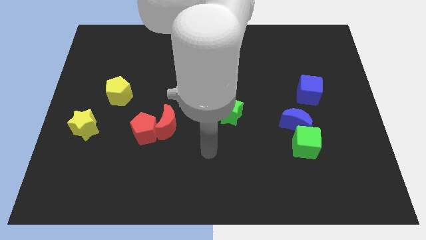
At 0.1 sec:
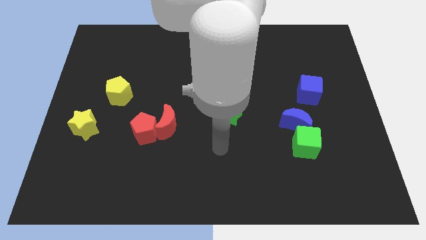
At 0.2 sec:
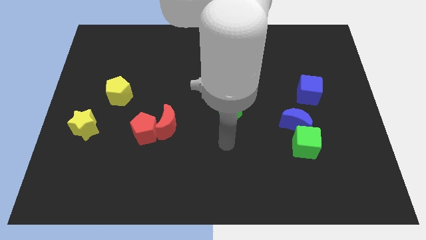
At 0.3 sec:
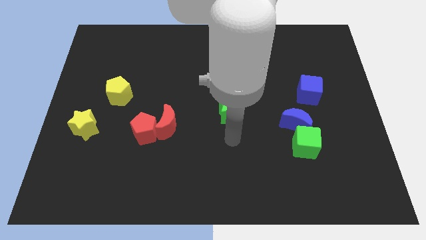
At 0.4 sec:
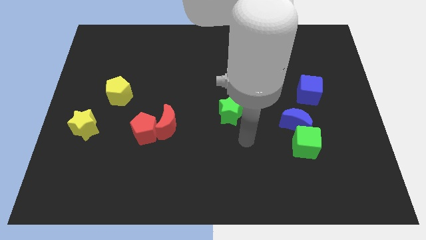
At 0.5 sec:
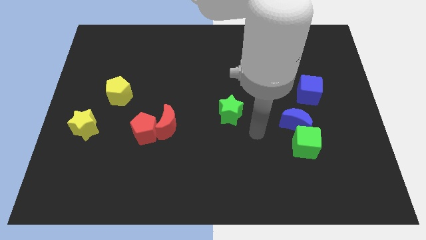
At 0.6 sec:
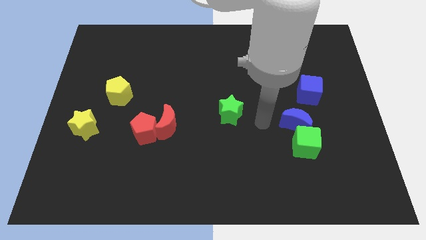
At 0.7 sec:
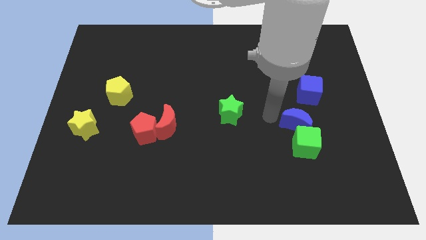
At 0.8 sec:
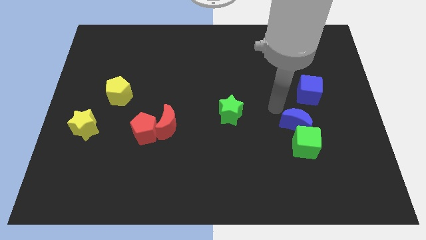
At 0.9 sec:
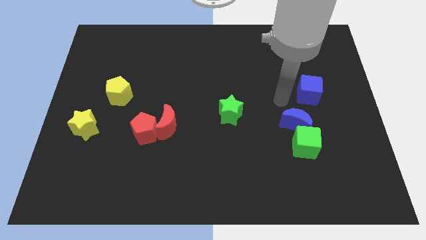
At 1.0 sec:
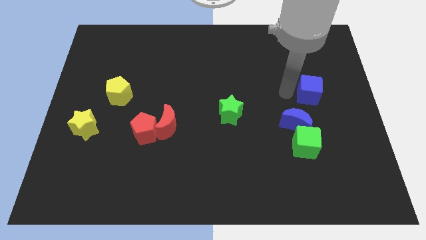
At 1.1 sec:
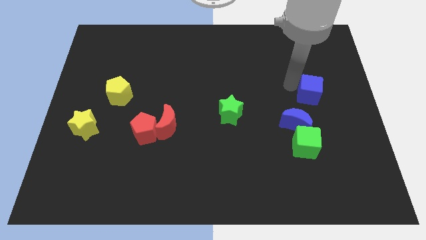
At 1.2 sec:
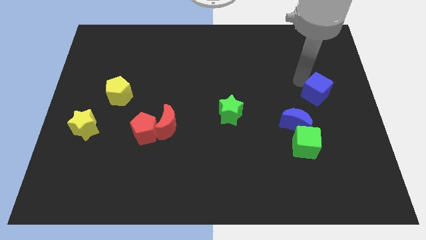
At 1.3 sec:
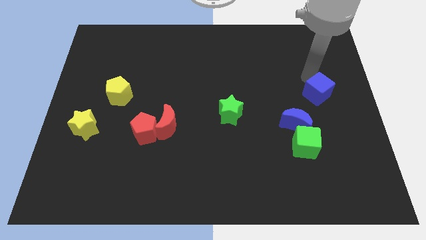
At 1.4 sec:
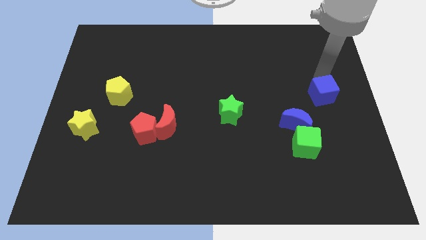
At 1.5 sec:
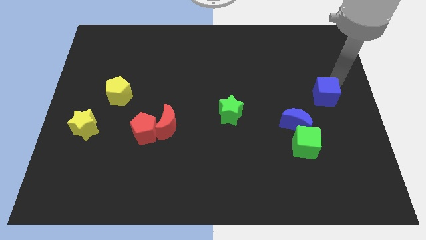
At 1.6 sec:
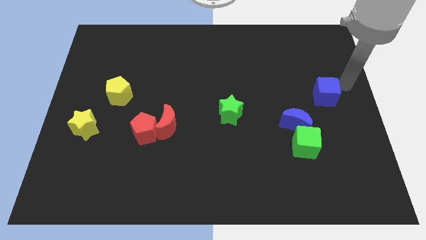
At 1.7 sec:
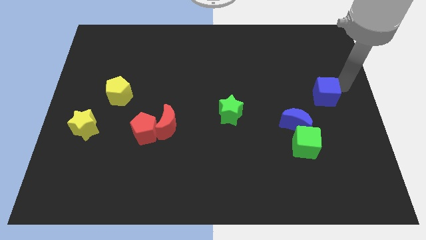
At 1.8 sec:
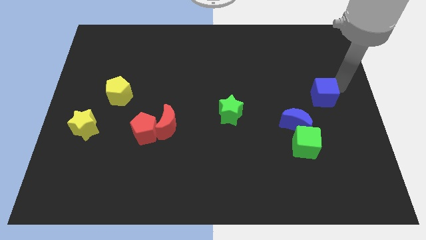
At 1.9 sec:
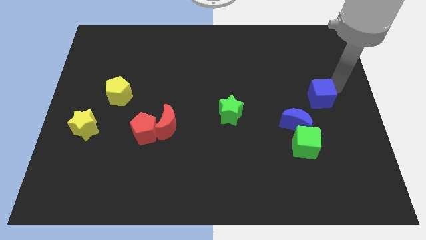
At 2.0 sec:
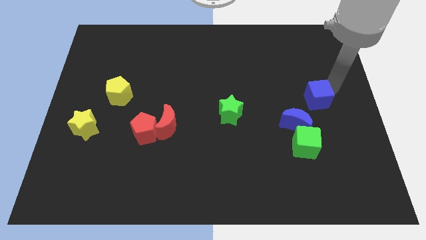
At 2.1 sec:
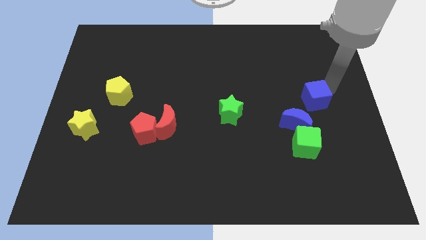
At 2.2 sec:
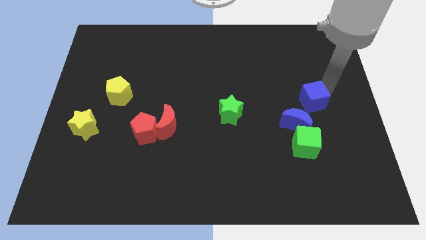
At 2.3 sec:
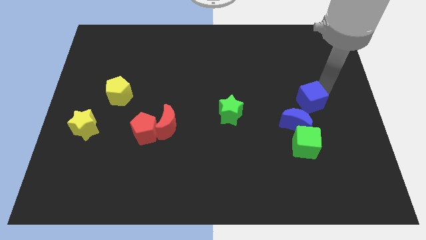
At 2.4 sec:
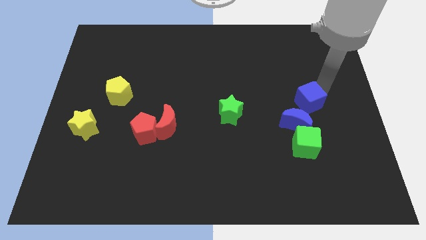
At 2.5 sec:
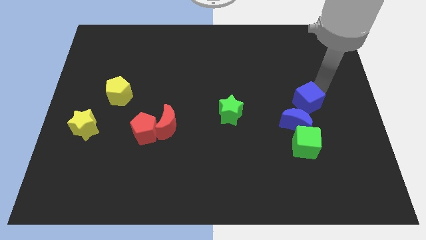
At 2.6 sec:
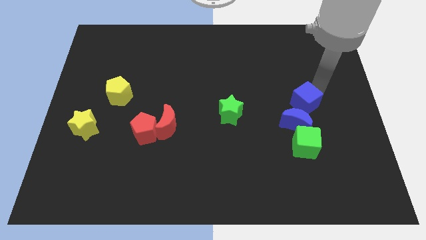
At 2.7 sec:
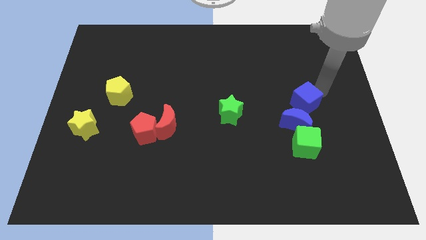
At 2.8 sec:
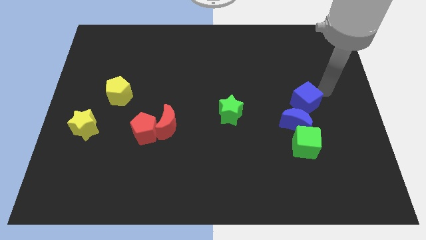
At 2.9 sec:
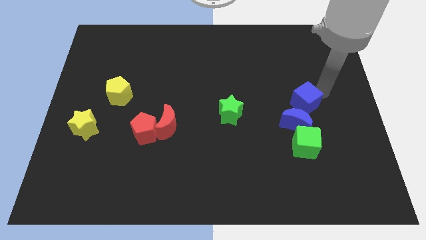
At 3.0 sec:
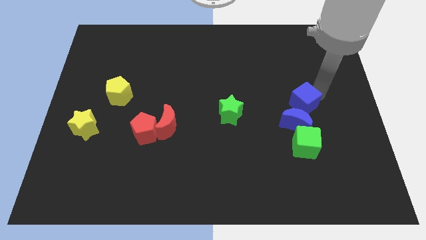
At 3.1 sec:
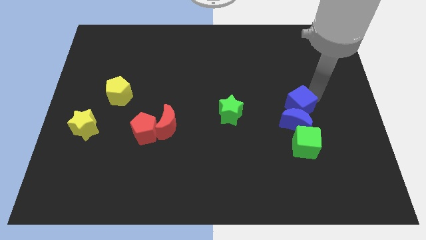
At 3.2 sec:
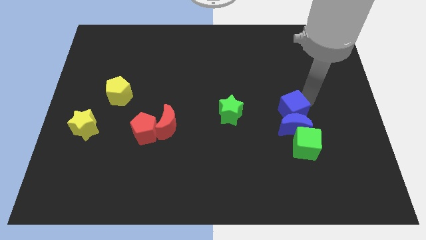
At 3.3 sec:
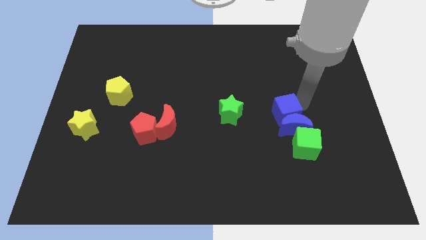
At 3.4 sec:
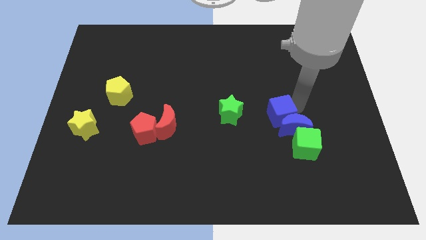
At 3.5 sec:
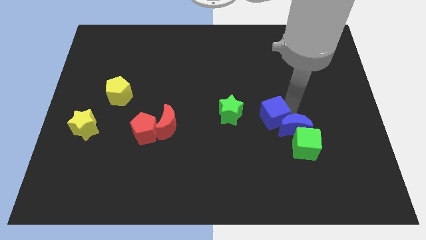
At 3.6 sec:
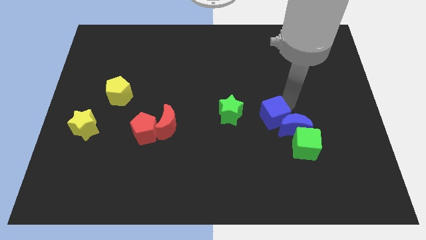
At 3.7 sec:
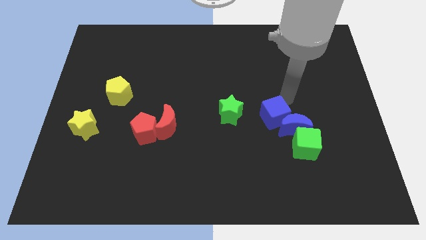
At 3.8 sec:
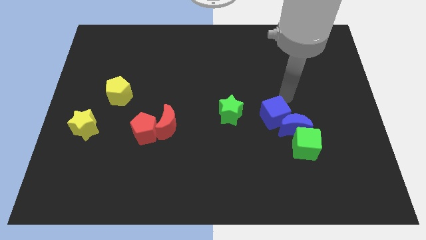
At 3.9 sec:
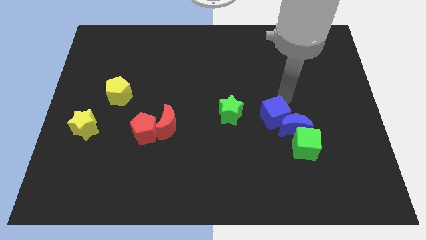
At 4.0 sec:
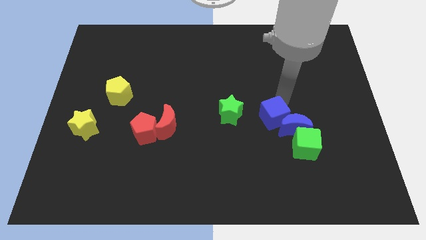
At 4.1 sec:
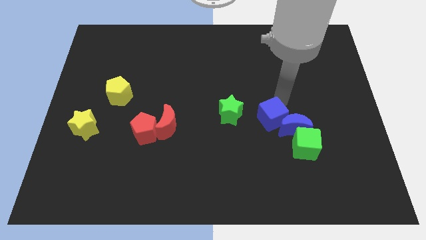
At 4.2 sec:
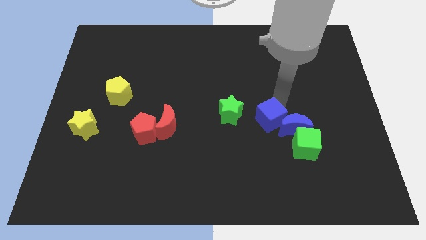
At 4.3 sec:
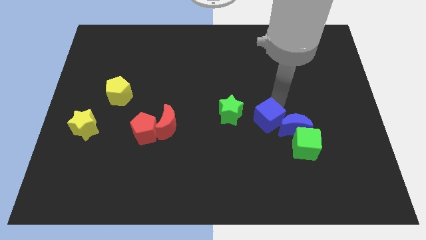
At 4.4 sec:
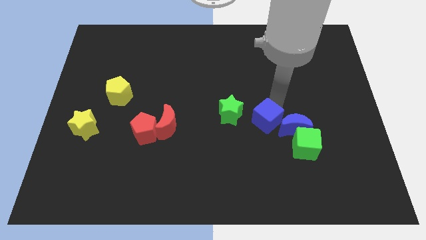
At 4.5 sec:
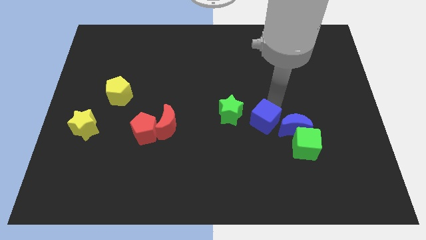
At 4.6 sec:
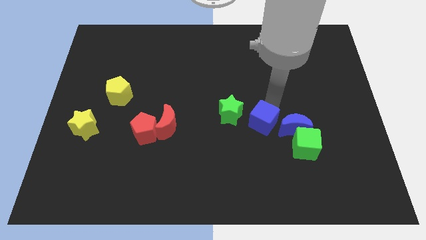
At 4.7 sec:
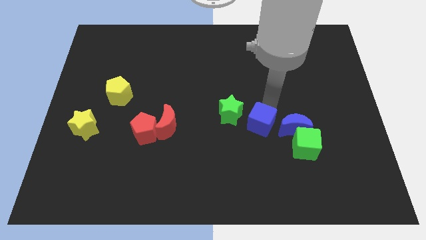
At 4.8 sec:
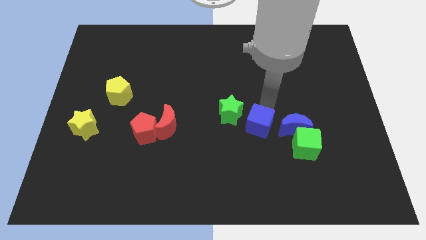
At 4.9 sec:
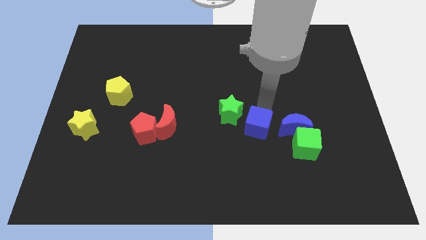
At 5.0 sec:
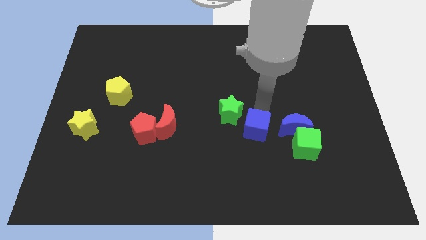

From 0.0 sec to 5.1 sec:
put the blue cube just left of the green cube

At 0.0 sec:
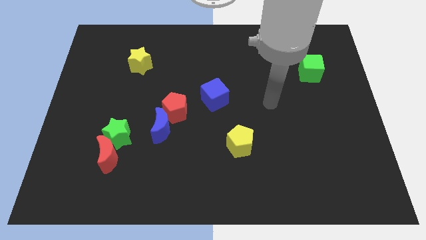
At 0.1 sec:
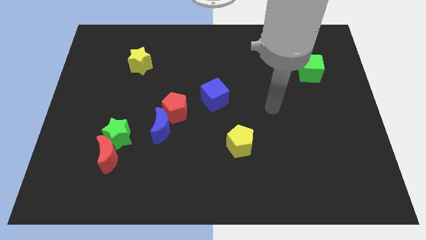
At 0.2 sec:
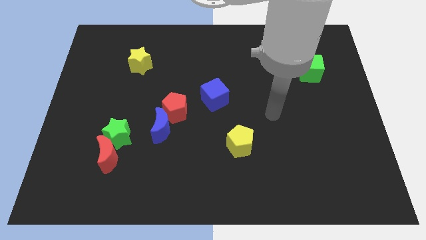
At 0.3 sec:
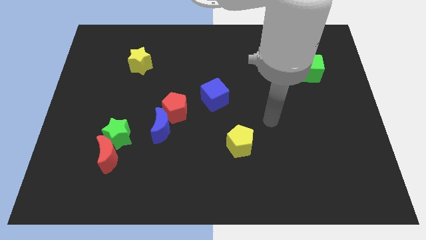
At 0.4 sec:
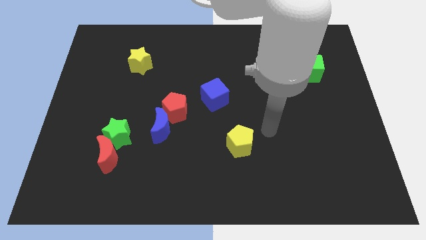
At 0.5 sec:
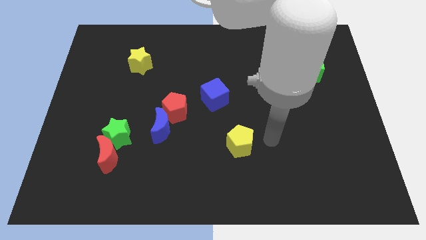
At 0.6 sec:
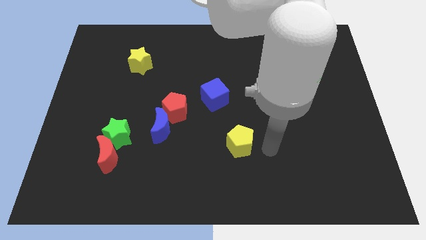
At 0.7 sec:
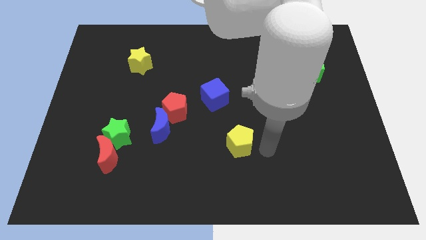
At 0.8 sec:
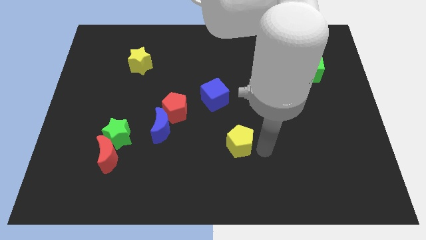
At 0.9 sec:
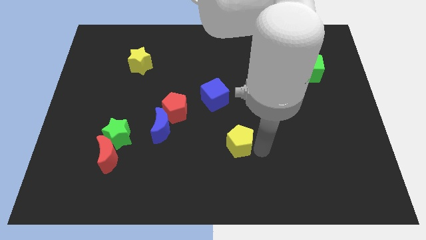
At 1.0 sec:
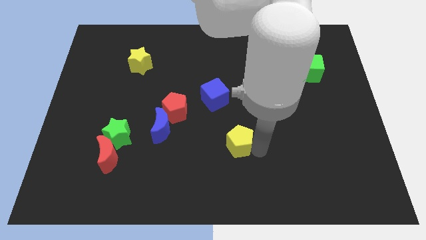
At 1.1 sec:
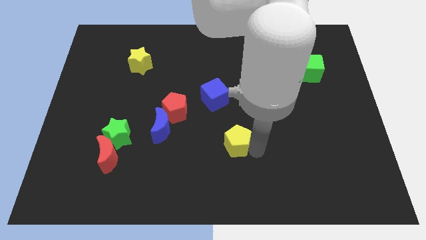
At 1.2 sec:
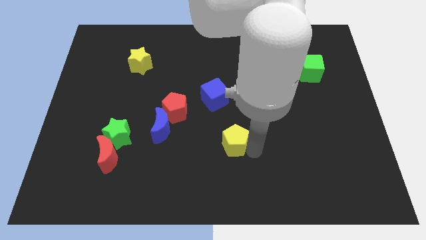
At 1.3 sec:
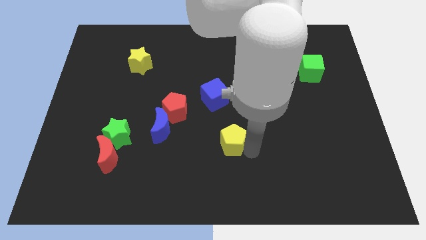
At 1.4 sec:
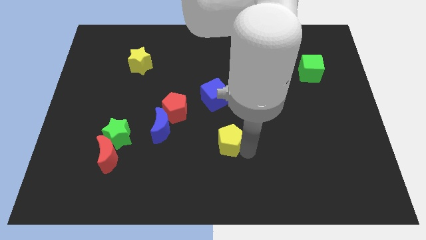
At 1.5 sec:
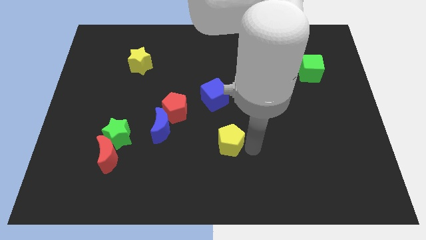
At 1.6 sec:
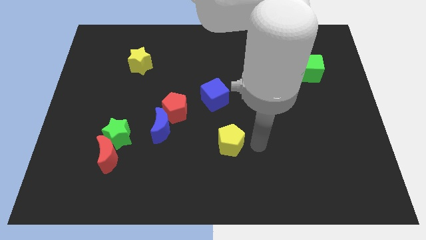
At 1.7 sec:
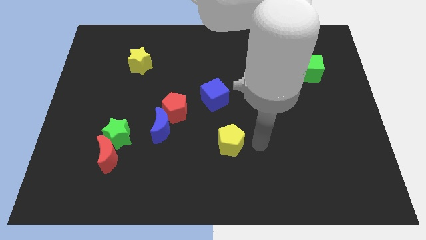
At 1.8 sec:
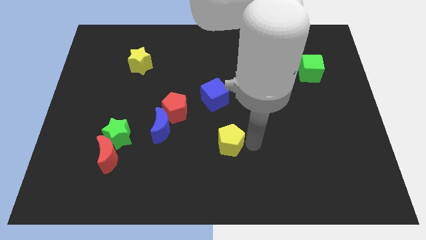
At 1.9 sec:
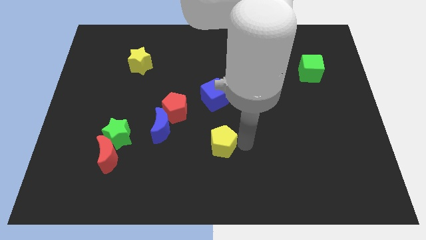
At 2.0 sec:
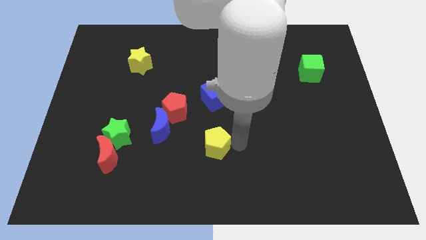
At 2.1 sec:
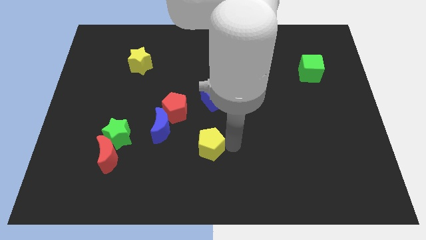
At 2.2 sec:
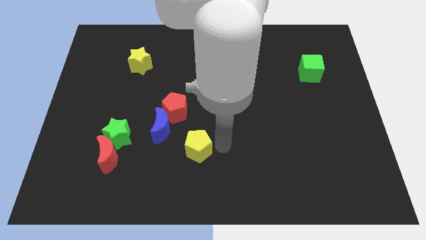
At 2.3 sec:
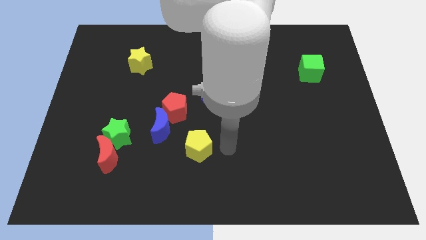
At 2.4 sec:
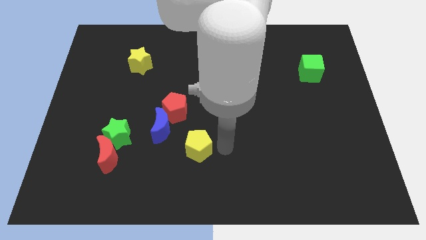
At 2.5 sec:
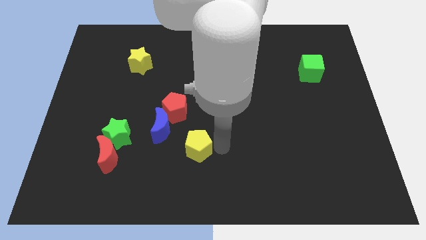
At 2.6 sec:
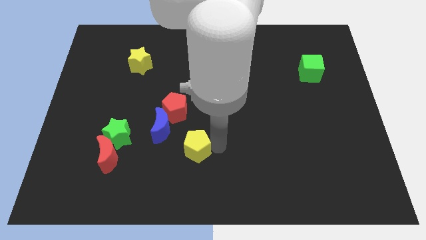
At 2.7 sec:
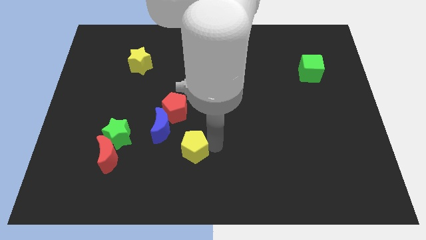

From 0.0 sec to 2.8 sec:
move the yellow pentagon to the bottom side of the red pentagon
